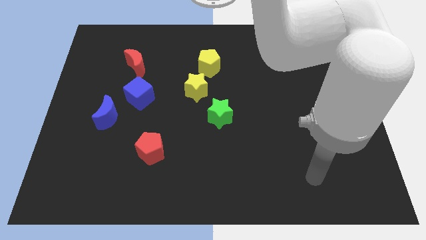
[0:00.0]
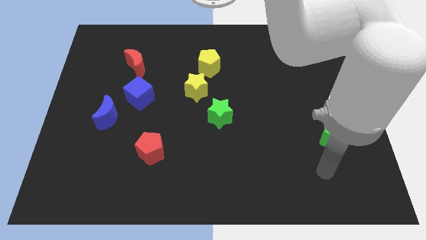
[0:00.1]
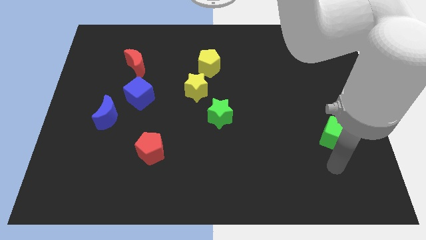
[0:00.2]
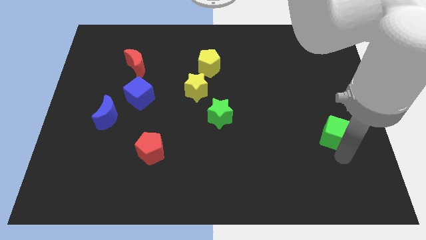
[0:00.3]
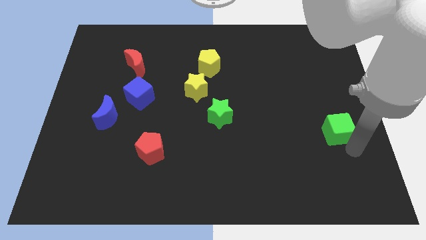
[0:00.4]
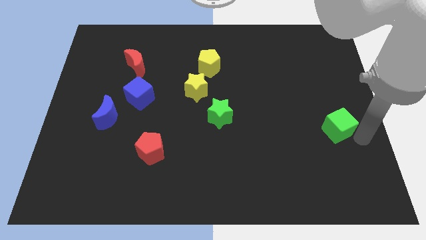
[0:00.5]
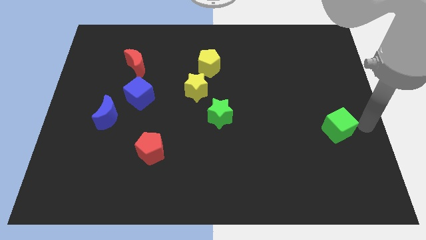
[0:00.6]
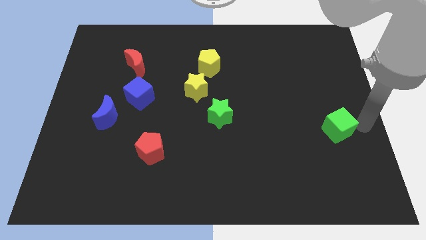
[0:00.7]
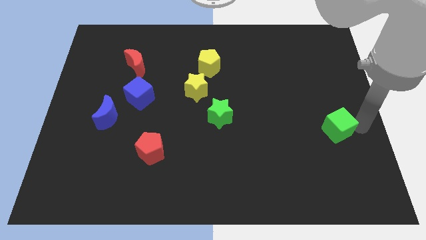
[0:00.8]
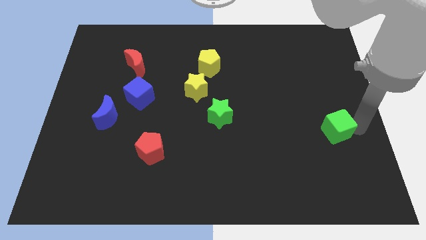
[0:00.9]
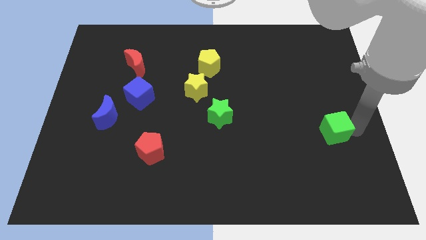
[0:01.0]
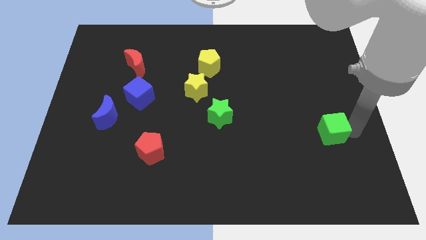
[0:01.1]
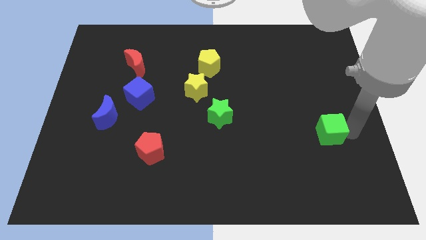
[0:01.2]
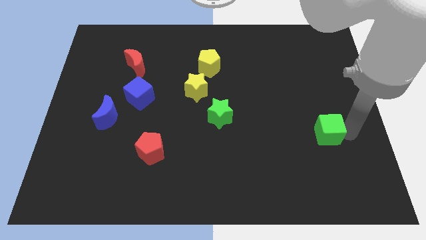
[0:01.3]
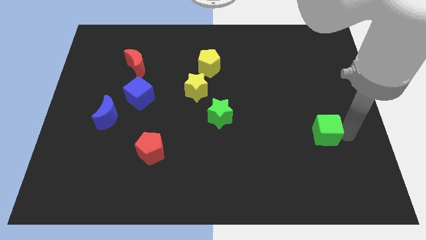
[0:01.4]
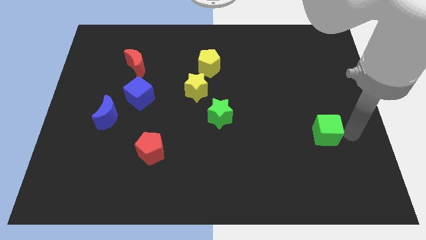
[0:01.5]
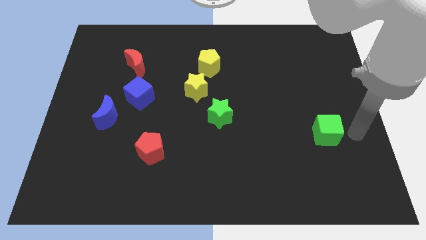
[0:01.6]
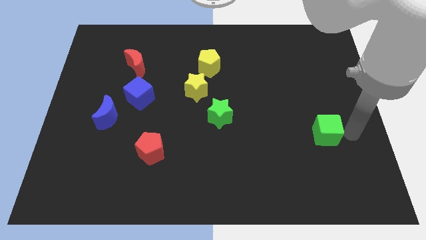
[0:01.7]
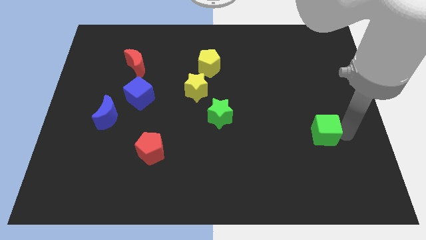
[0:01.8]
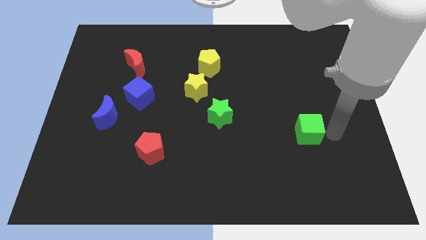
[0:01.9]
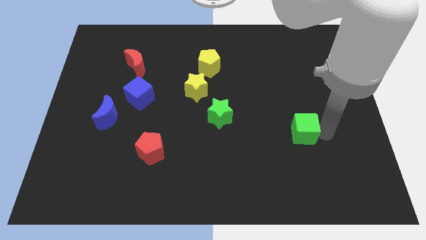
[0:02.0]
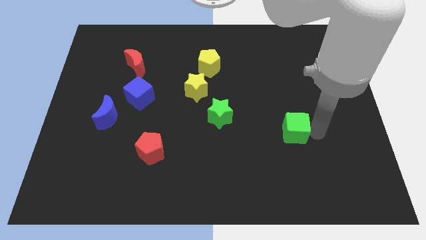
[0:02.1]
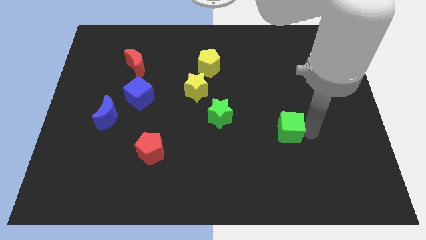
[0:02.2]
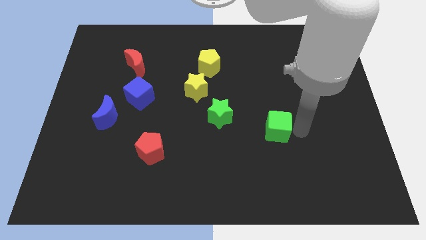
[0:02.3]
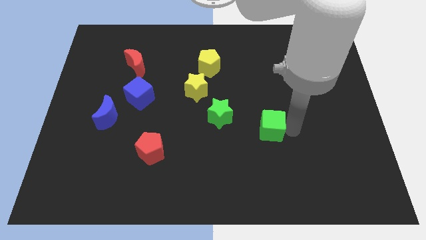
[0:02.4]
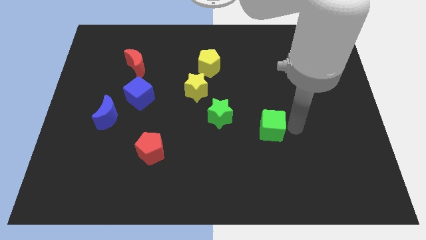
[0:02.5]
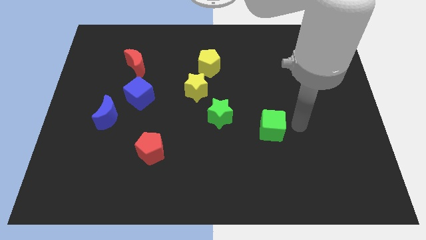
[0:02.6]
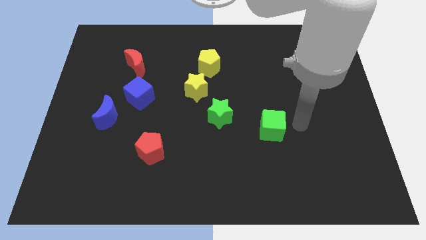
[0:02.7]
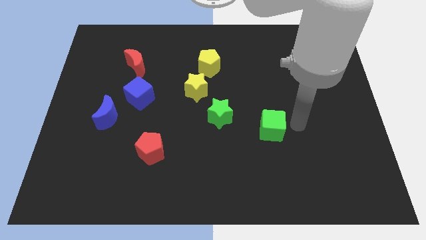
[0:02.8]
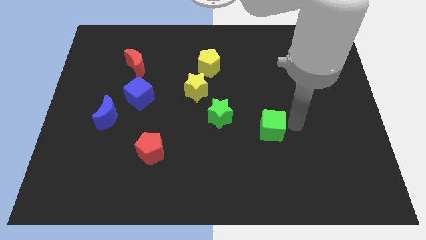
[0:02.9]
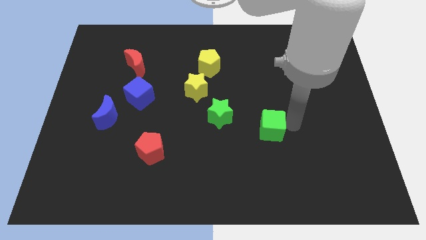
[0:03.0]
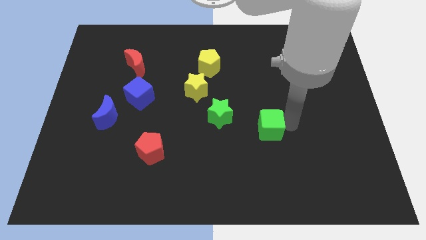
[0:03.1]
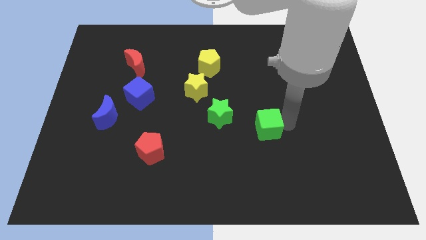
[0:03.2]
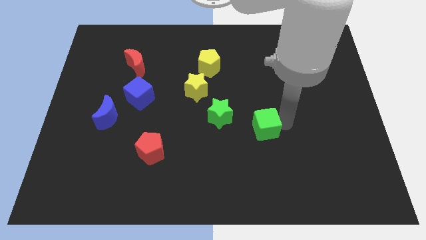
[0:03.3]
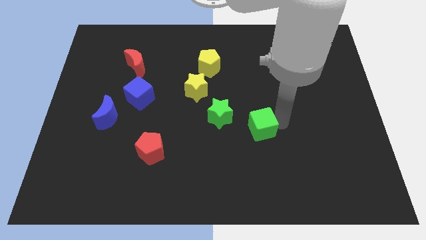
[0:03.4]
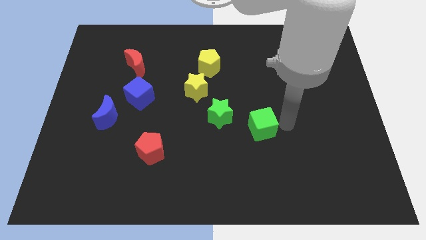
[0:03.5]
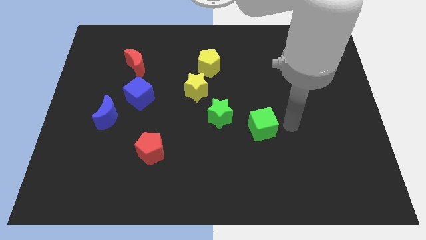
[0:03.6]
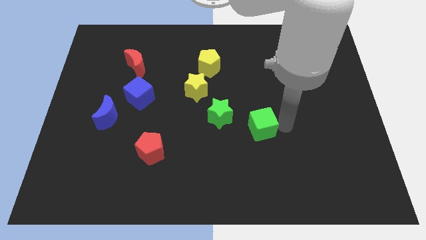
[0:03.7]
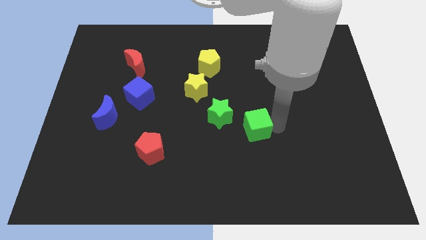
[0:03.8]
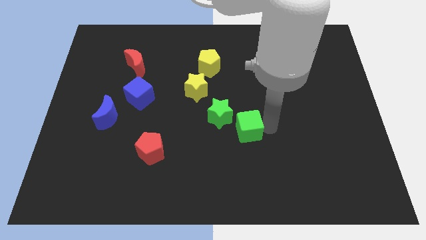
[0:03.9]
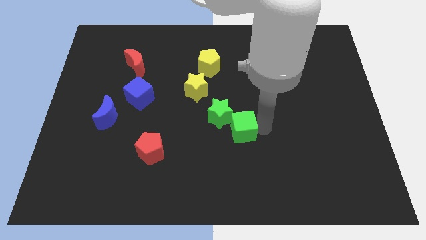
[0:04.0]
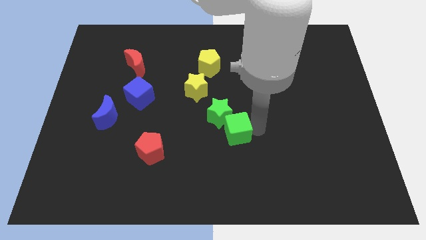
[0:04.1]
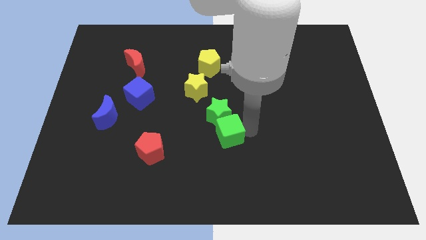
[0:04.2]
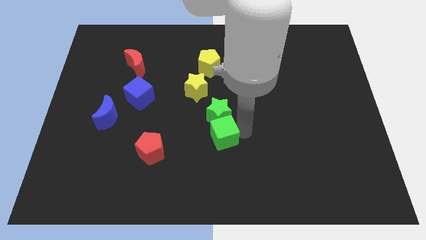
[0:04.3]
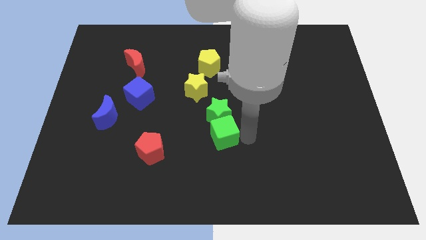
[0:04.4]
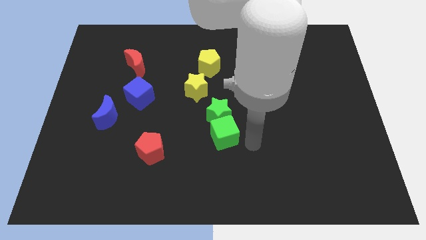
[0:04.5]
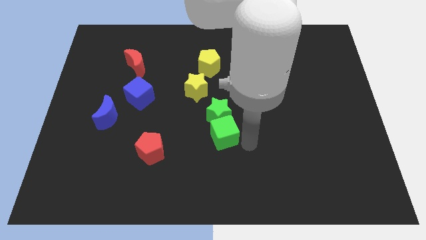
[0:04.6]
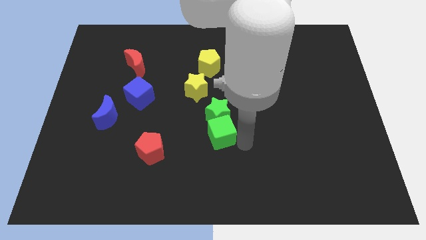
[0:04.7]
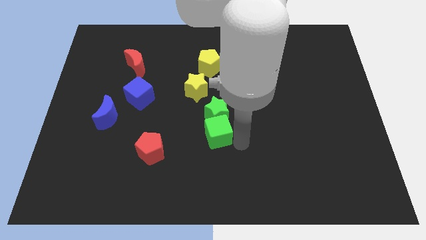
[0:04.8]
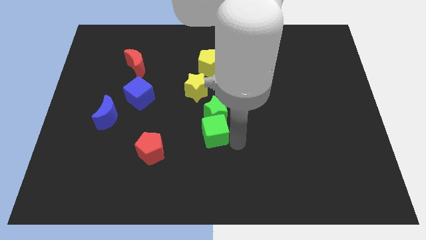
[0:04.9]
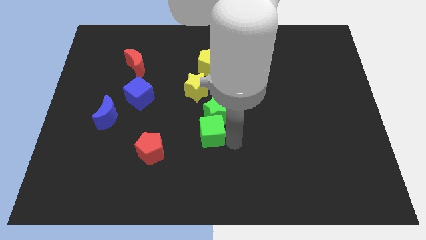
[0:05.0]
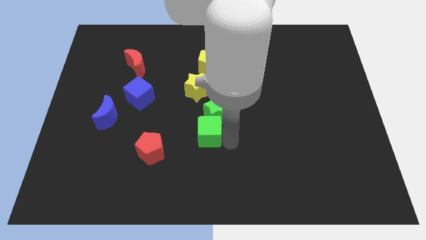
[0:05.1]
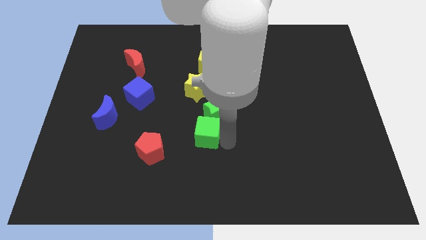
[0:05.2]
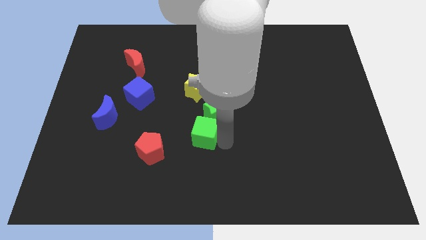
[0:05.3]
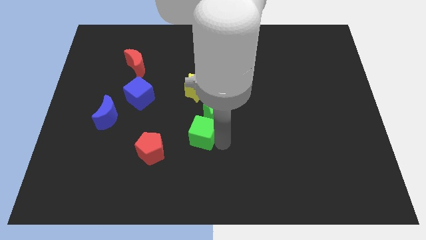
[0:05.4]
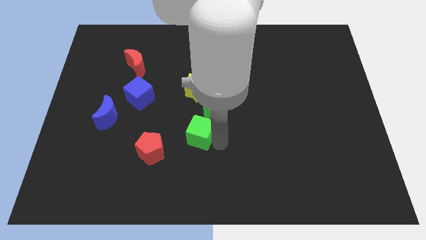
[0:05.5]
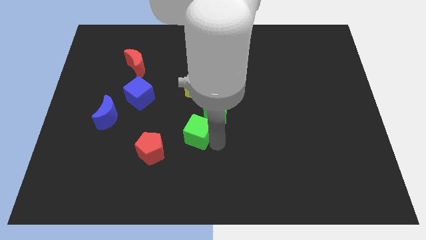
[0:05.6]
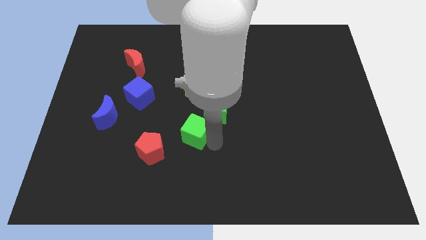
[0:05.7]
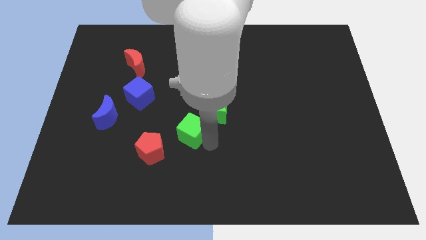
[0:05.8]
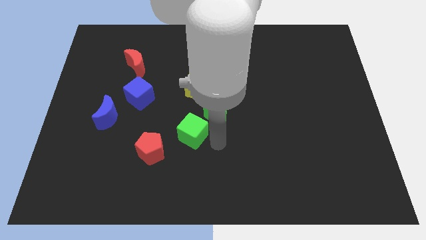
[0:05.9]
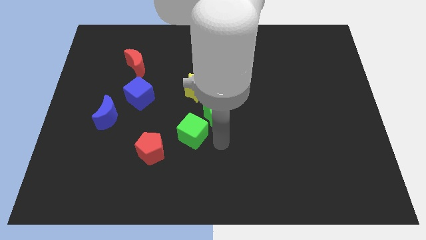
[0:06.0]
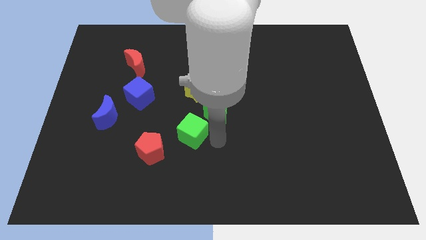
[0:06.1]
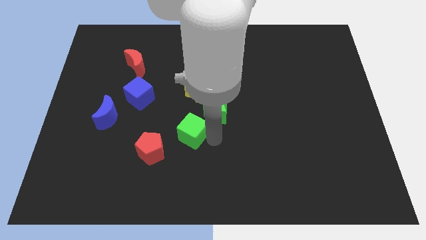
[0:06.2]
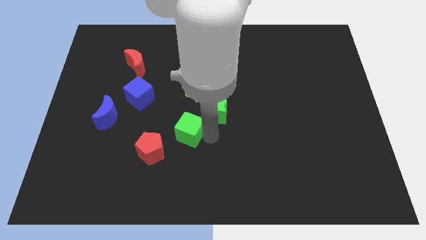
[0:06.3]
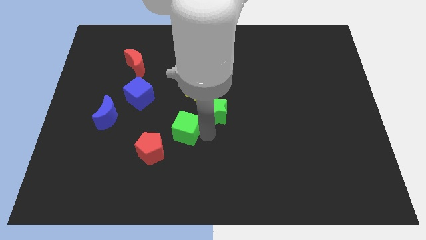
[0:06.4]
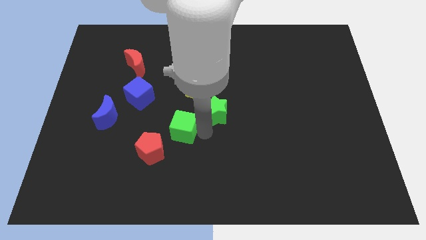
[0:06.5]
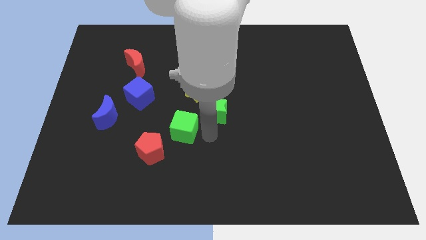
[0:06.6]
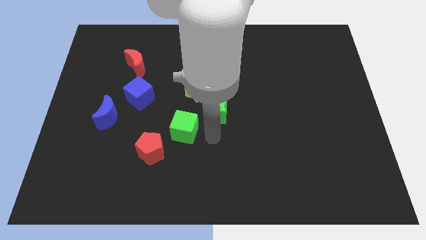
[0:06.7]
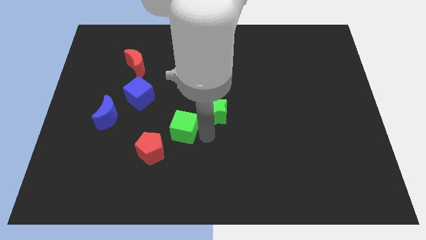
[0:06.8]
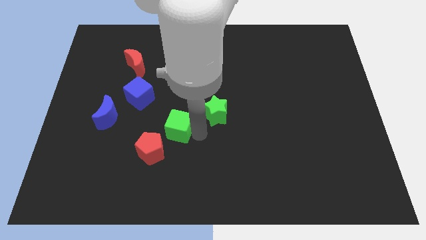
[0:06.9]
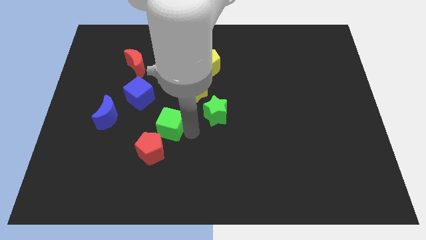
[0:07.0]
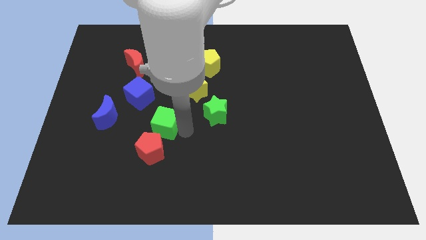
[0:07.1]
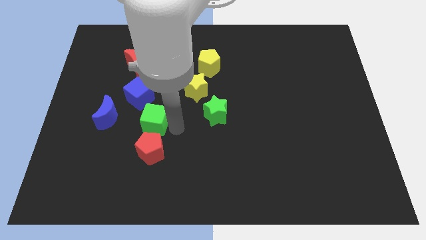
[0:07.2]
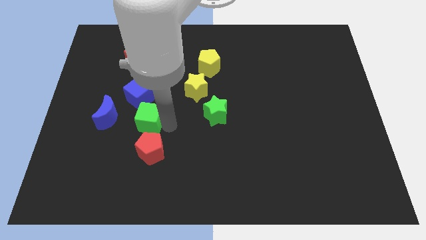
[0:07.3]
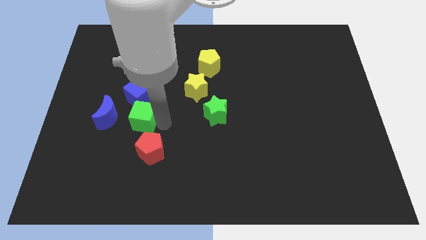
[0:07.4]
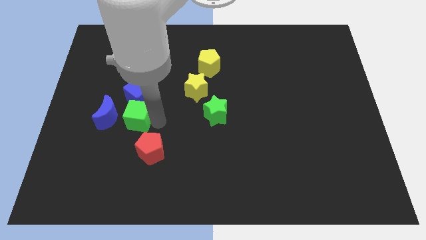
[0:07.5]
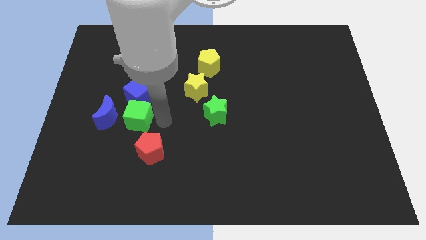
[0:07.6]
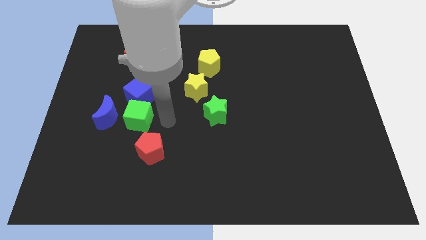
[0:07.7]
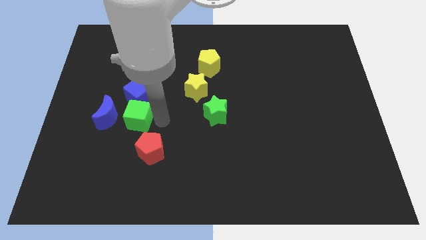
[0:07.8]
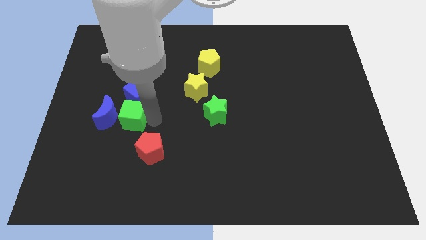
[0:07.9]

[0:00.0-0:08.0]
move the green cube close to the blue moon
